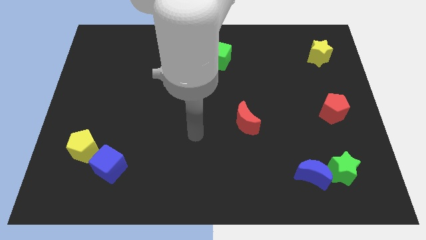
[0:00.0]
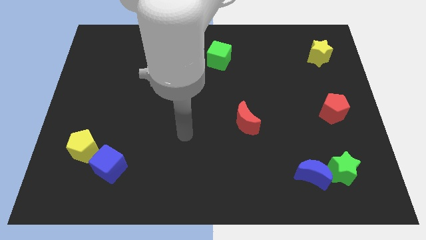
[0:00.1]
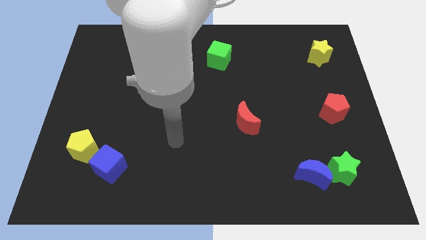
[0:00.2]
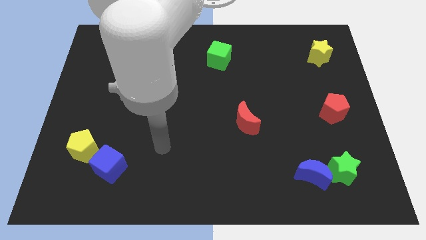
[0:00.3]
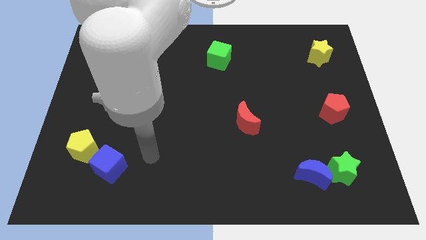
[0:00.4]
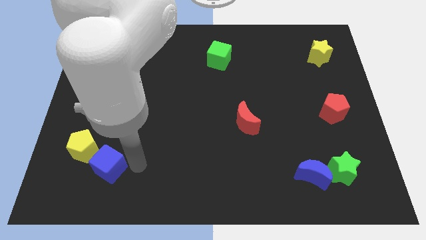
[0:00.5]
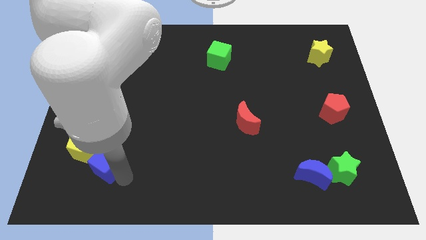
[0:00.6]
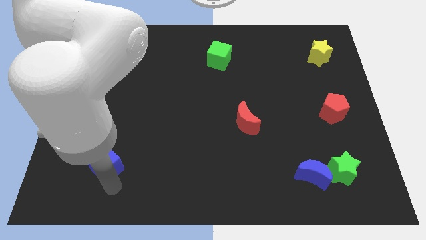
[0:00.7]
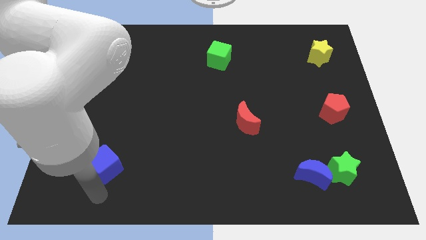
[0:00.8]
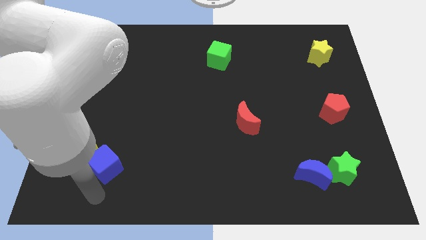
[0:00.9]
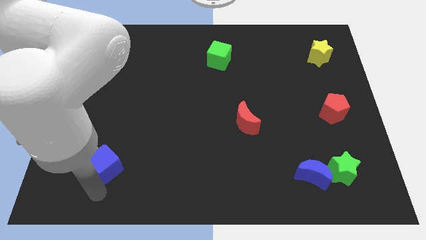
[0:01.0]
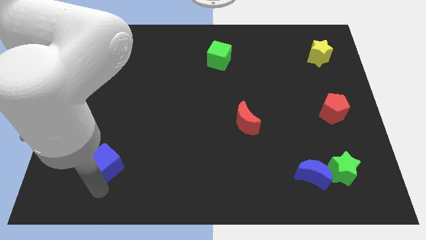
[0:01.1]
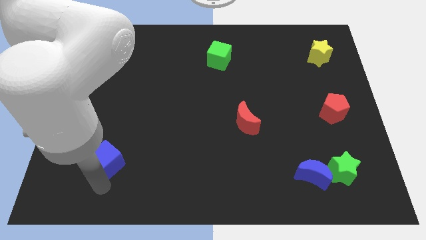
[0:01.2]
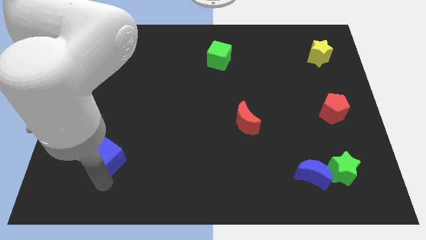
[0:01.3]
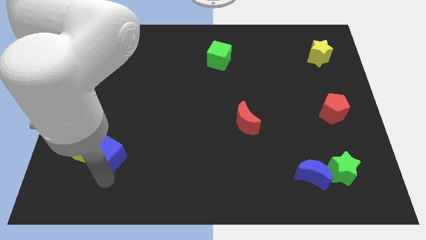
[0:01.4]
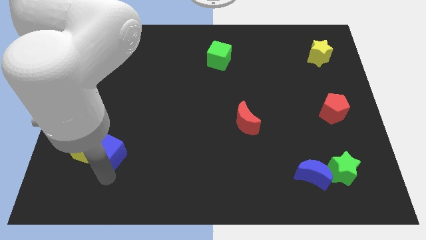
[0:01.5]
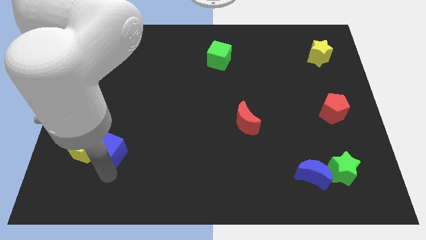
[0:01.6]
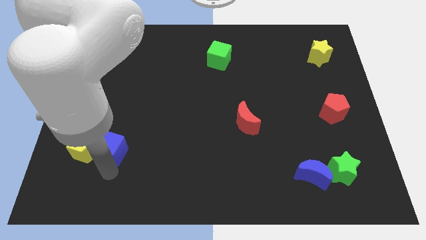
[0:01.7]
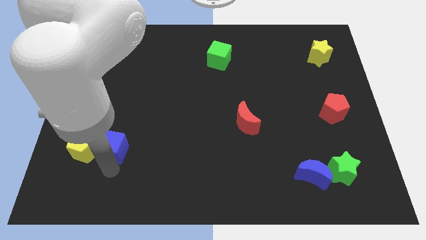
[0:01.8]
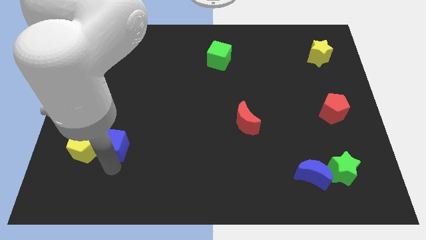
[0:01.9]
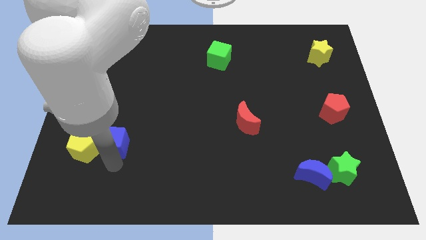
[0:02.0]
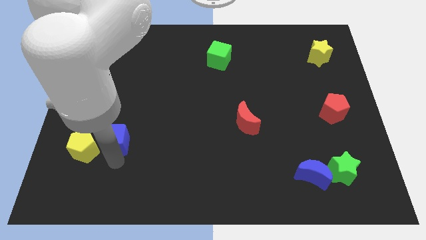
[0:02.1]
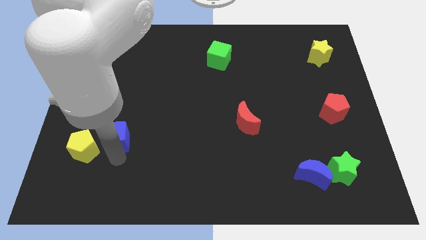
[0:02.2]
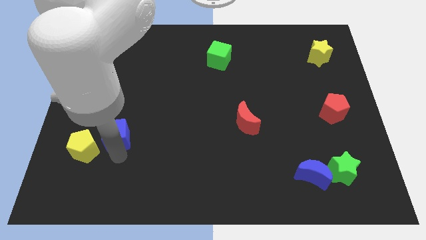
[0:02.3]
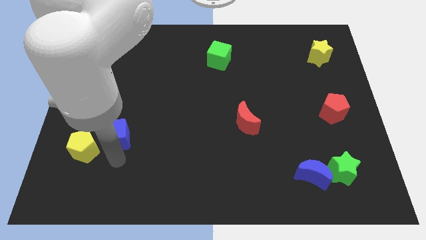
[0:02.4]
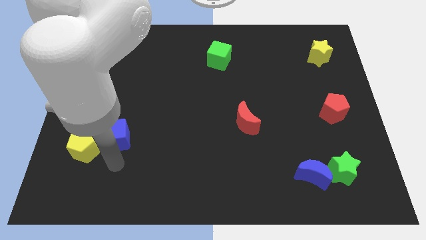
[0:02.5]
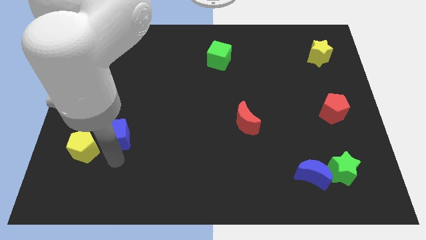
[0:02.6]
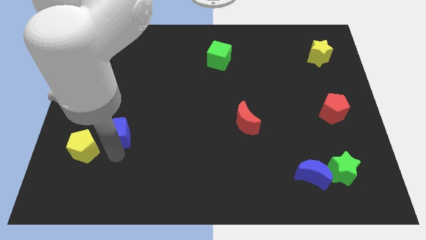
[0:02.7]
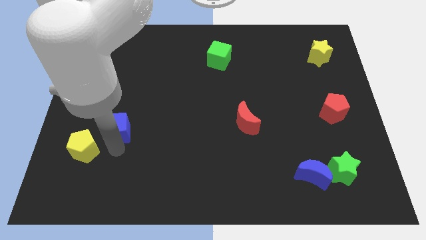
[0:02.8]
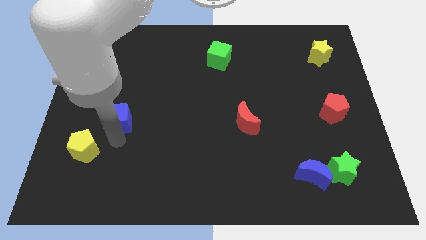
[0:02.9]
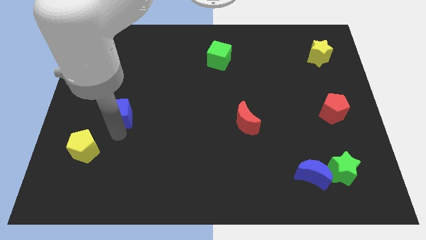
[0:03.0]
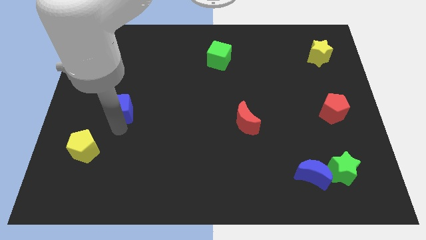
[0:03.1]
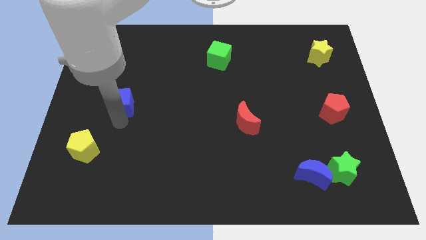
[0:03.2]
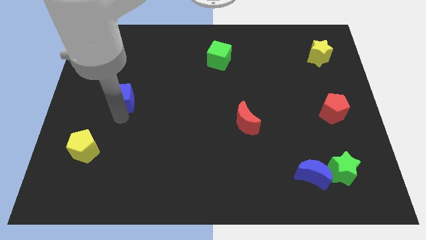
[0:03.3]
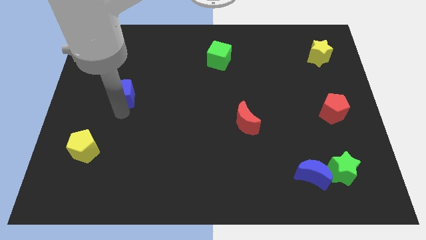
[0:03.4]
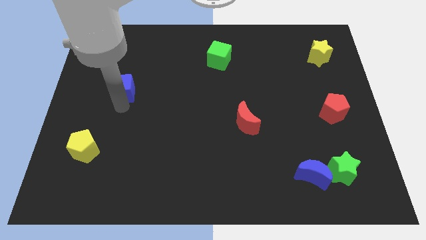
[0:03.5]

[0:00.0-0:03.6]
push the blue cube up

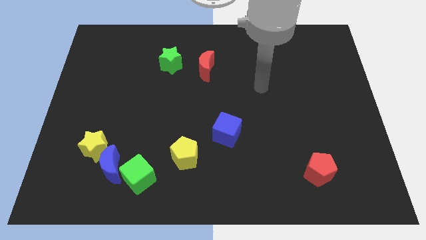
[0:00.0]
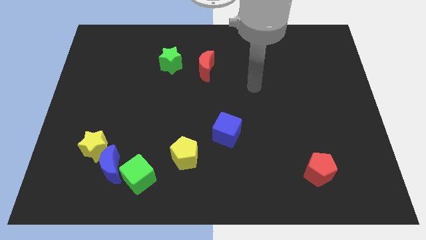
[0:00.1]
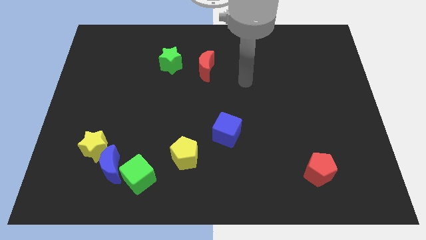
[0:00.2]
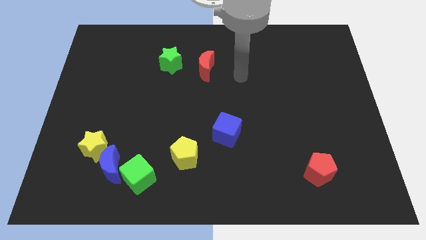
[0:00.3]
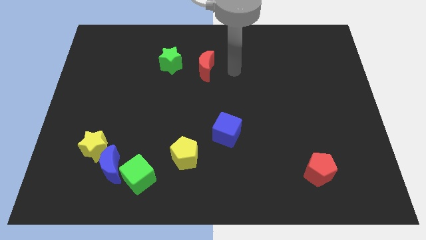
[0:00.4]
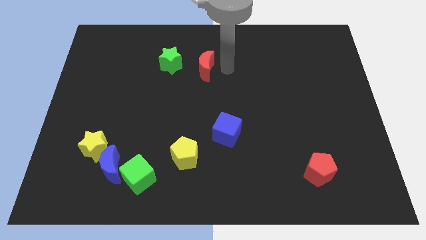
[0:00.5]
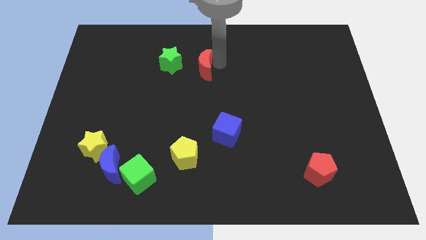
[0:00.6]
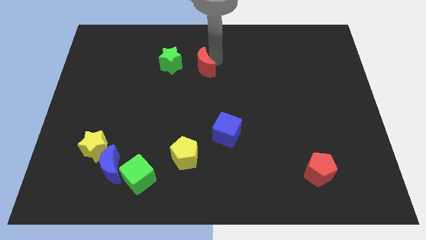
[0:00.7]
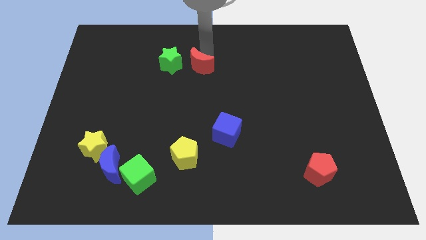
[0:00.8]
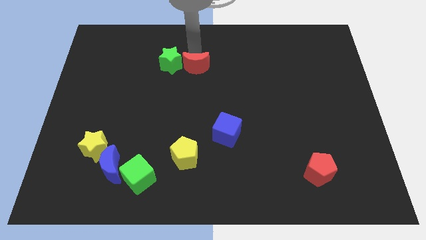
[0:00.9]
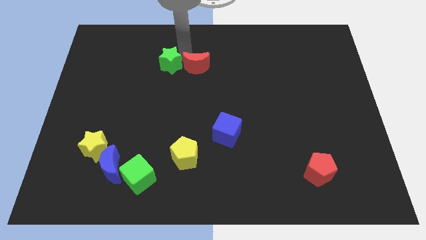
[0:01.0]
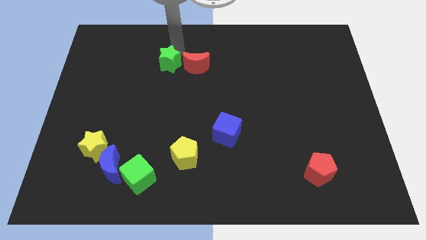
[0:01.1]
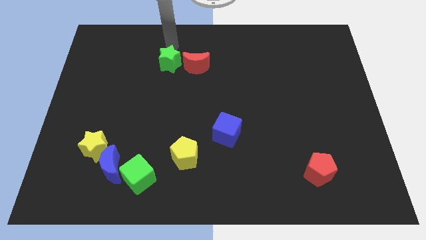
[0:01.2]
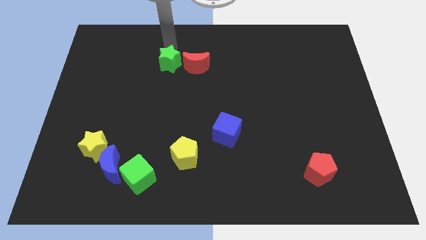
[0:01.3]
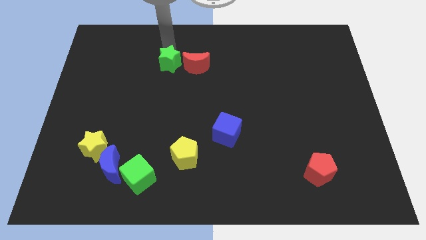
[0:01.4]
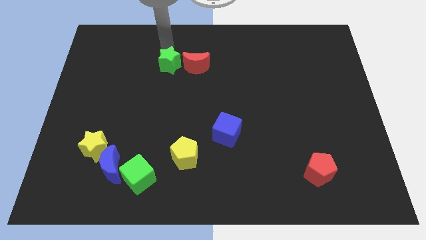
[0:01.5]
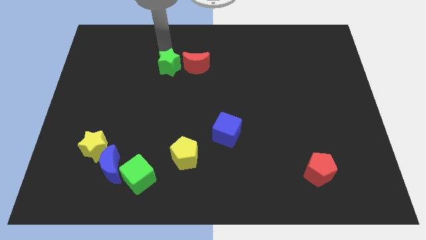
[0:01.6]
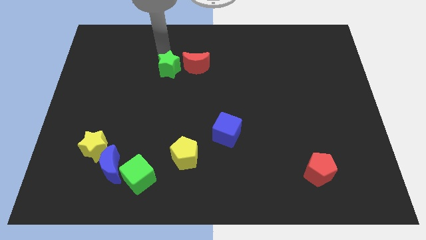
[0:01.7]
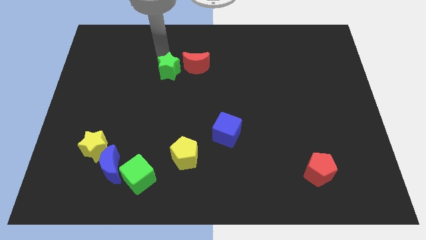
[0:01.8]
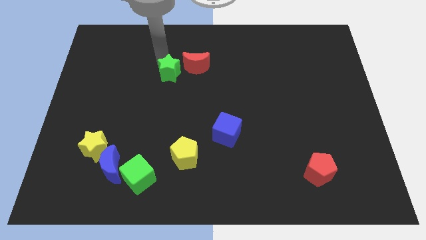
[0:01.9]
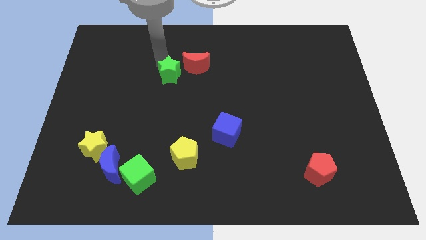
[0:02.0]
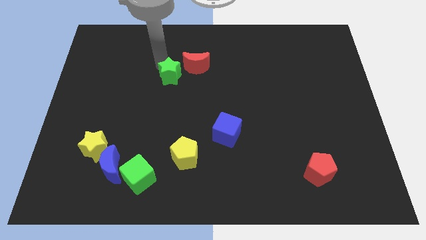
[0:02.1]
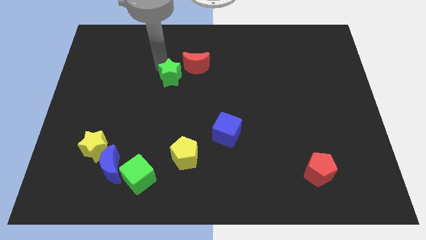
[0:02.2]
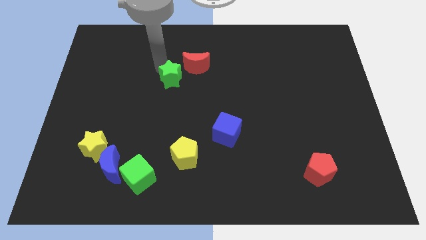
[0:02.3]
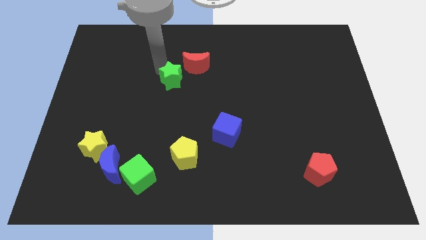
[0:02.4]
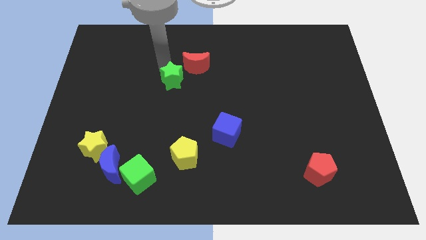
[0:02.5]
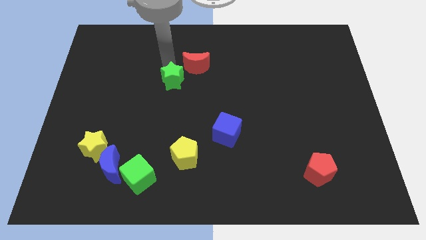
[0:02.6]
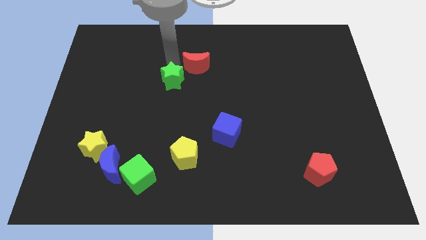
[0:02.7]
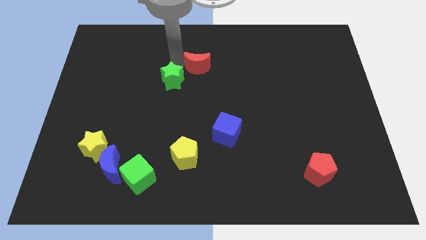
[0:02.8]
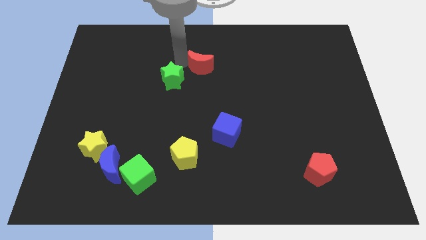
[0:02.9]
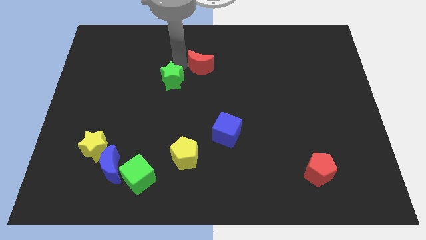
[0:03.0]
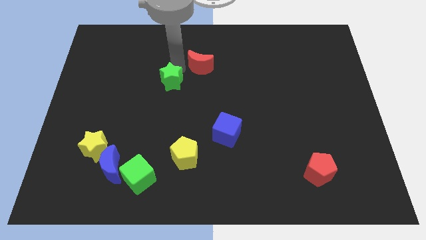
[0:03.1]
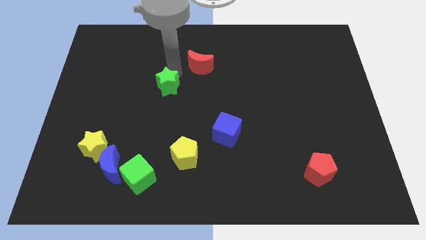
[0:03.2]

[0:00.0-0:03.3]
slide the green star downwards a bit

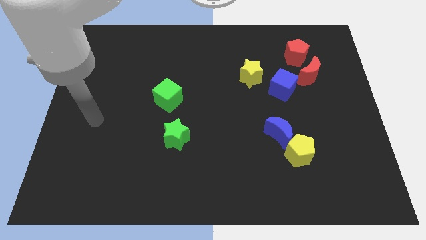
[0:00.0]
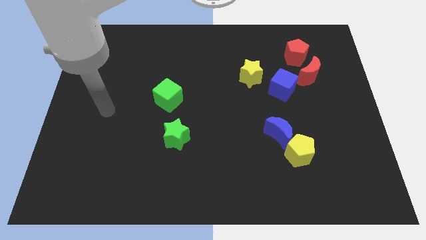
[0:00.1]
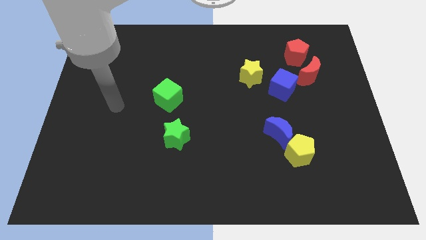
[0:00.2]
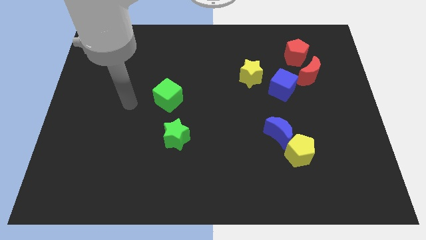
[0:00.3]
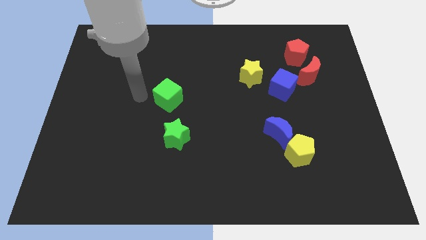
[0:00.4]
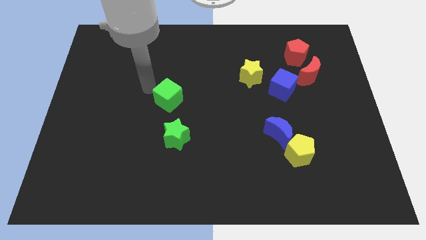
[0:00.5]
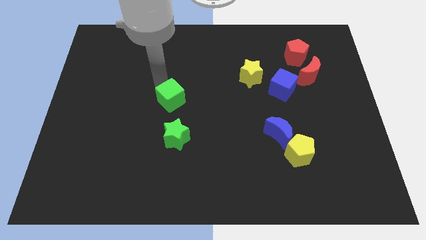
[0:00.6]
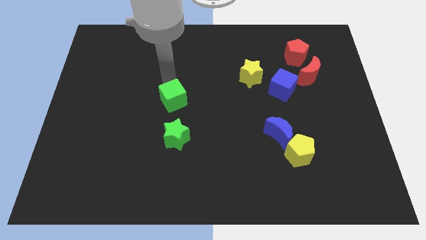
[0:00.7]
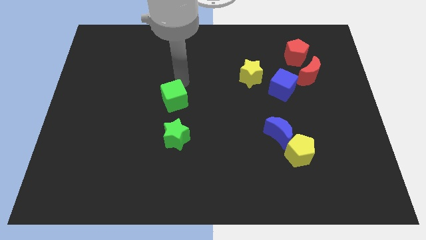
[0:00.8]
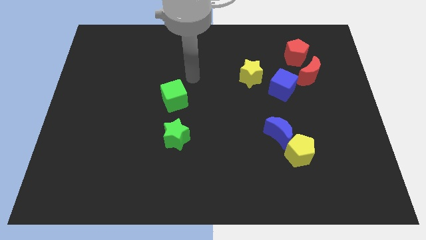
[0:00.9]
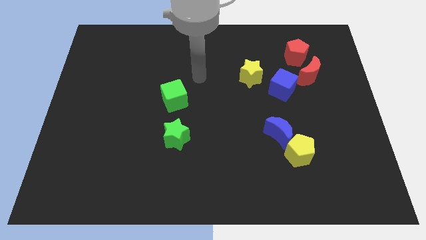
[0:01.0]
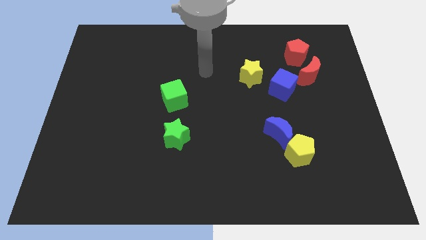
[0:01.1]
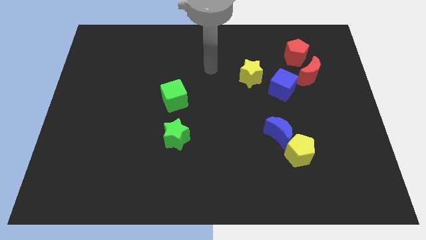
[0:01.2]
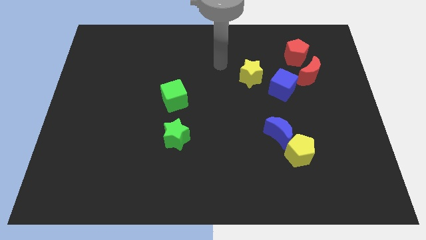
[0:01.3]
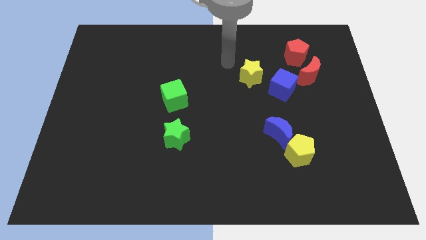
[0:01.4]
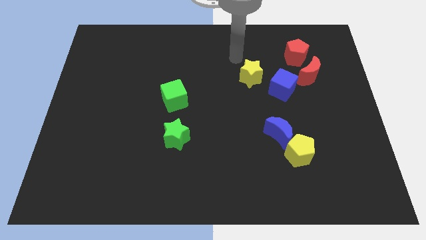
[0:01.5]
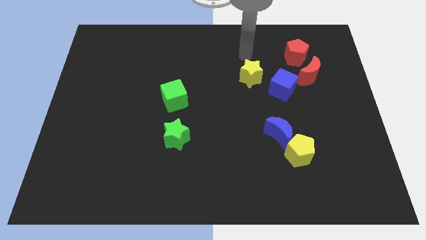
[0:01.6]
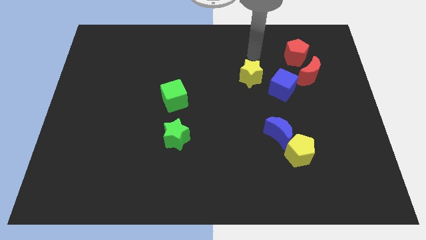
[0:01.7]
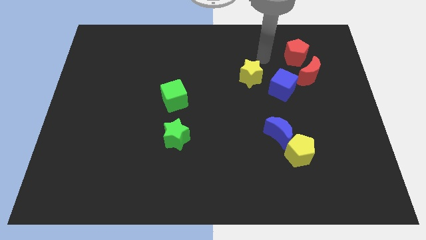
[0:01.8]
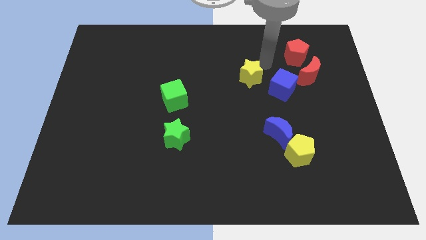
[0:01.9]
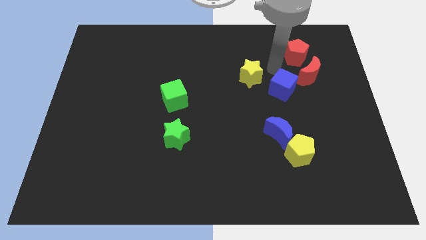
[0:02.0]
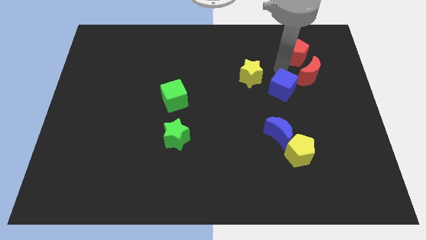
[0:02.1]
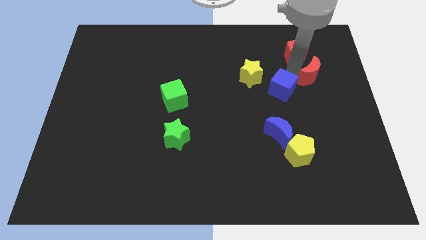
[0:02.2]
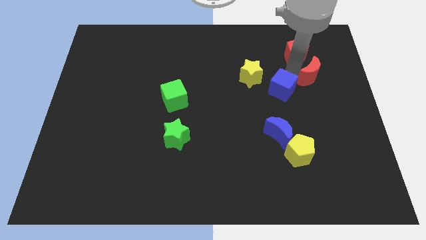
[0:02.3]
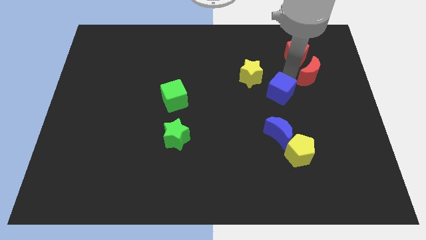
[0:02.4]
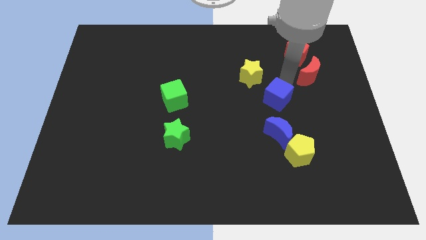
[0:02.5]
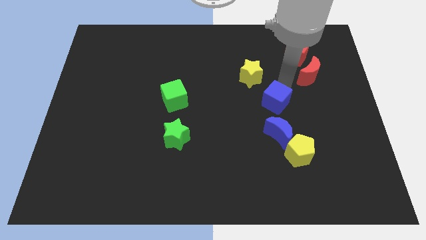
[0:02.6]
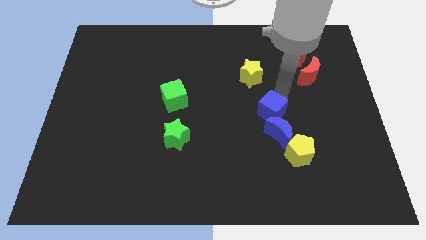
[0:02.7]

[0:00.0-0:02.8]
slightly move the blue cube down and to the left diagonally
